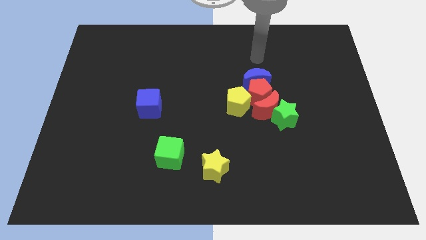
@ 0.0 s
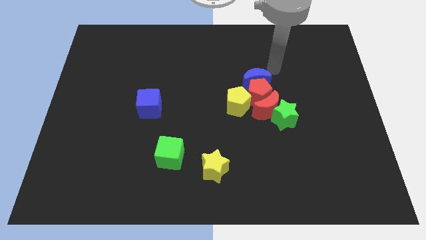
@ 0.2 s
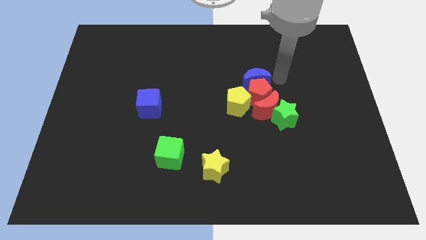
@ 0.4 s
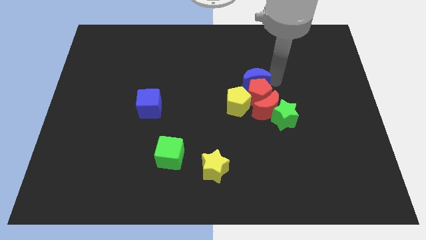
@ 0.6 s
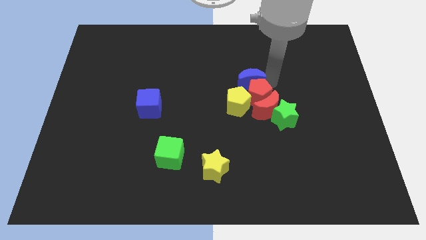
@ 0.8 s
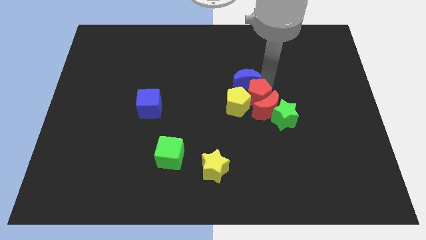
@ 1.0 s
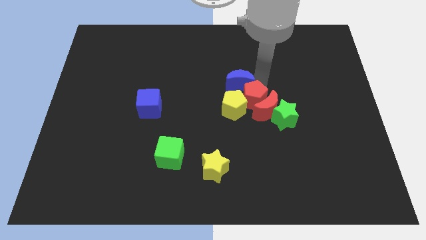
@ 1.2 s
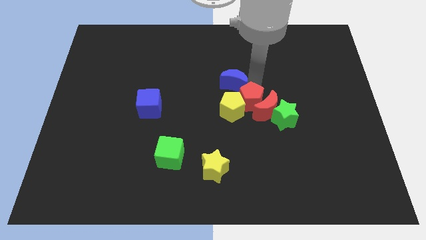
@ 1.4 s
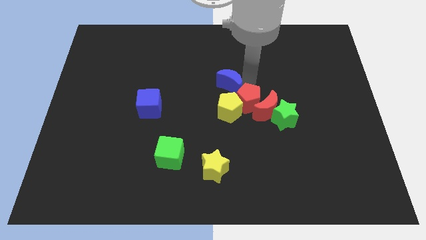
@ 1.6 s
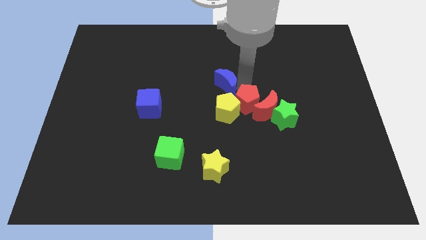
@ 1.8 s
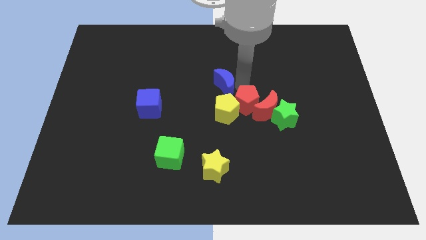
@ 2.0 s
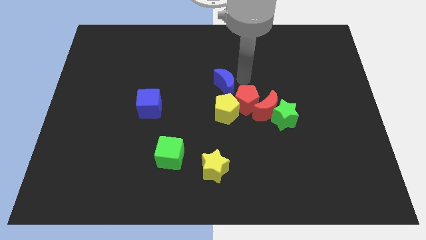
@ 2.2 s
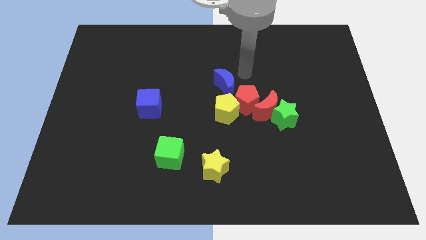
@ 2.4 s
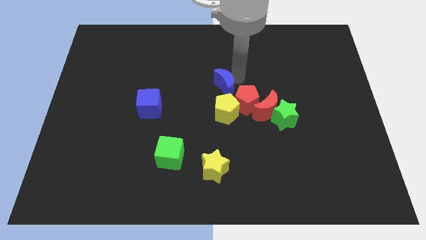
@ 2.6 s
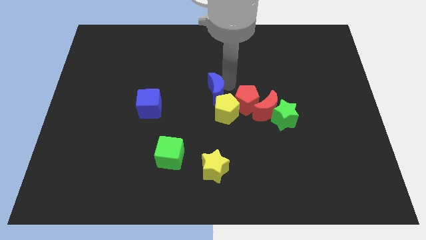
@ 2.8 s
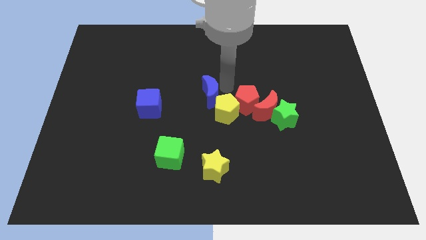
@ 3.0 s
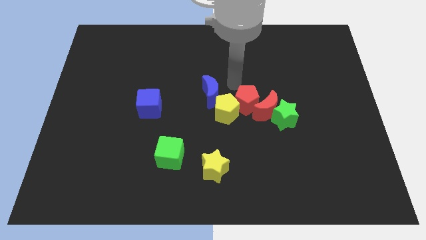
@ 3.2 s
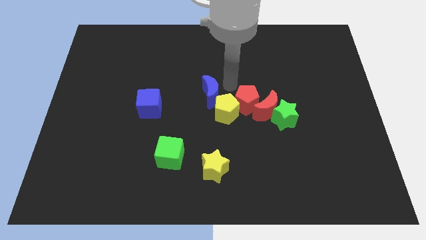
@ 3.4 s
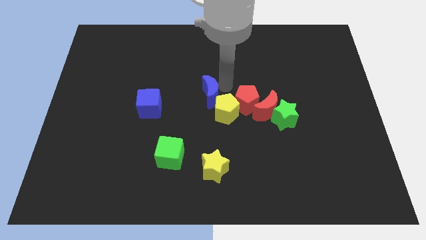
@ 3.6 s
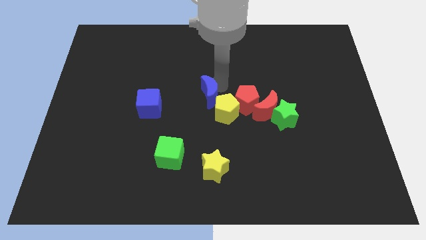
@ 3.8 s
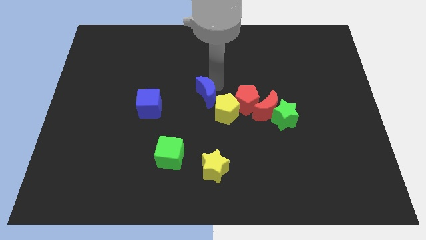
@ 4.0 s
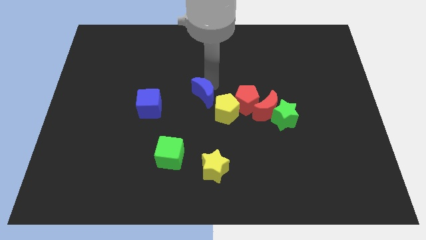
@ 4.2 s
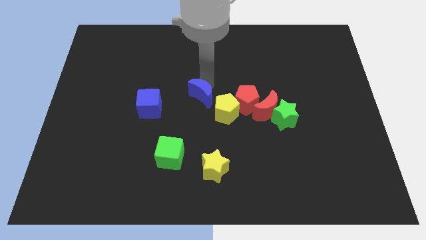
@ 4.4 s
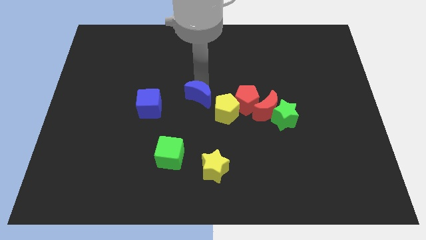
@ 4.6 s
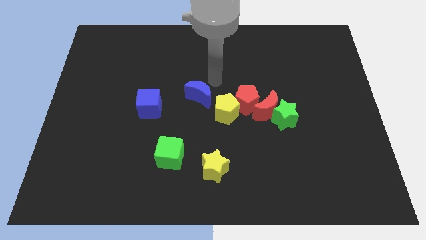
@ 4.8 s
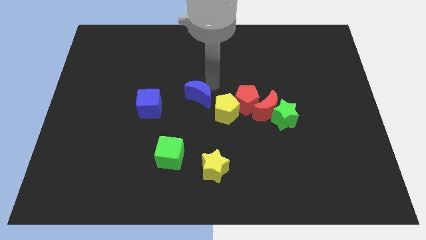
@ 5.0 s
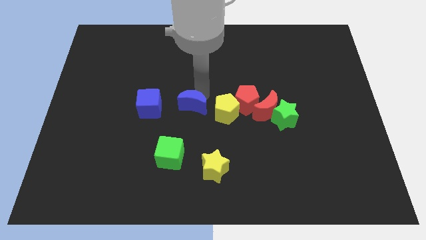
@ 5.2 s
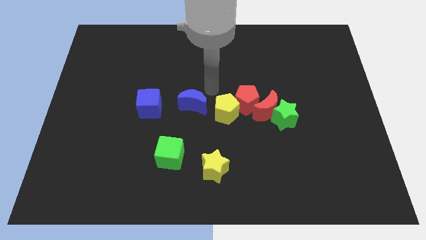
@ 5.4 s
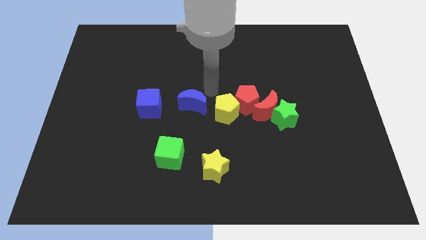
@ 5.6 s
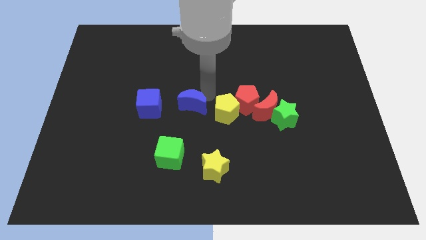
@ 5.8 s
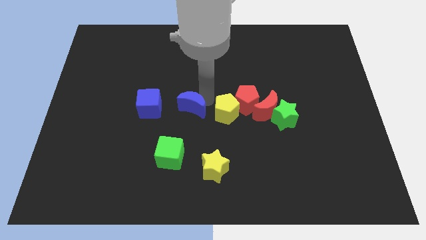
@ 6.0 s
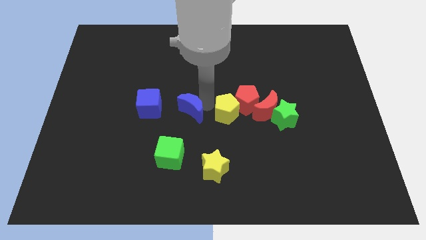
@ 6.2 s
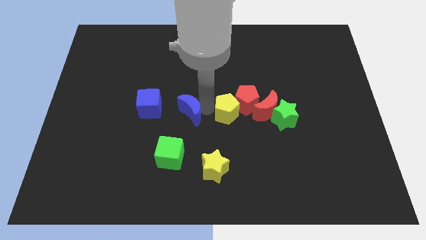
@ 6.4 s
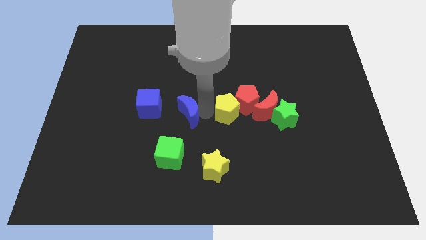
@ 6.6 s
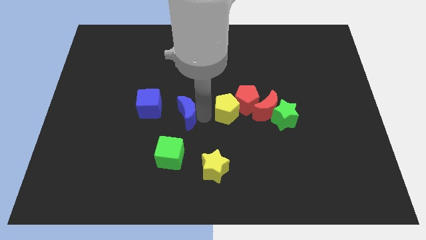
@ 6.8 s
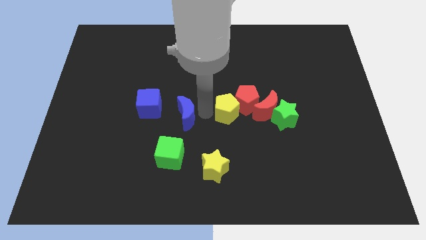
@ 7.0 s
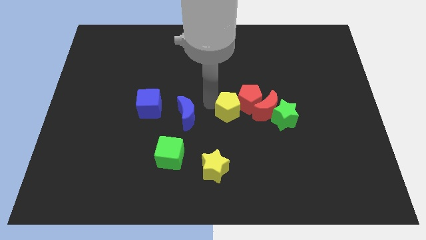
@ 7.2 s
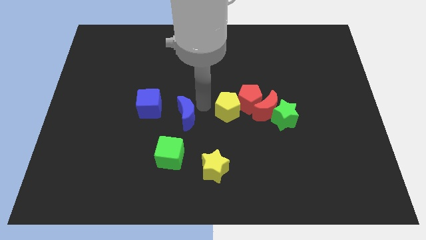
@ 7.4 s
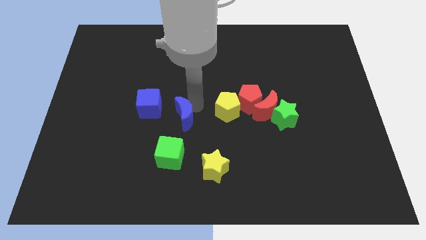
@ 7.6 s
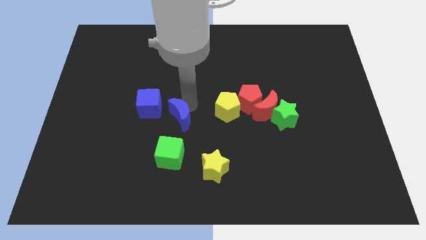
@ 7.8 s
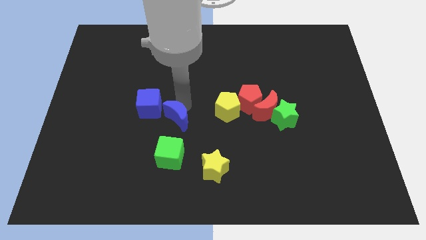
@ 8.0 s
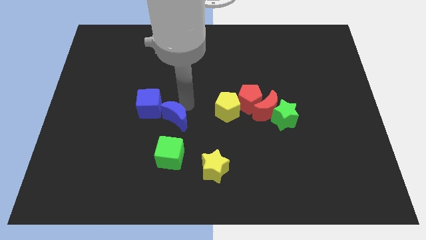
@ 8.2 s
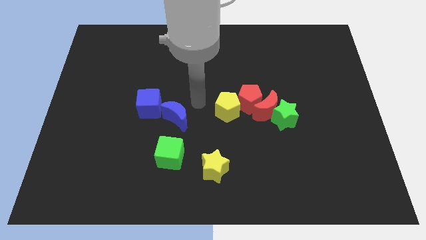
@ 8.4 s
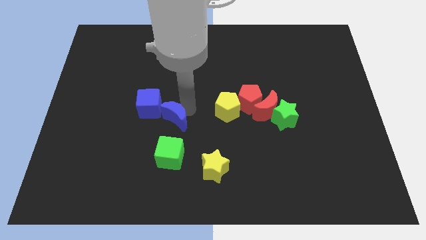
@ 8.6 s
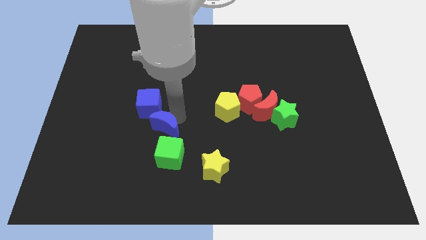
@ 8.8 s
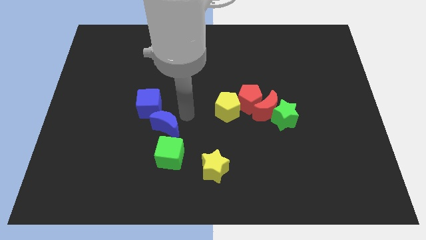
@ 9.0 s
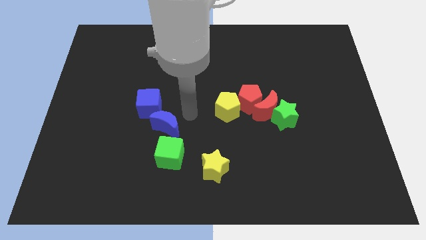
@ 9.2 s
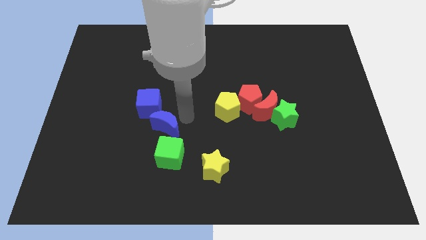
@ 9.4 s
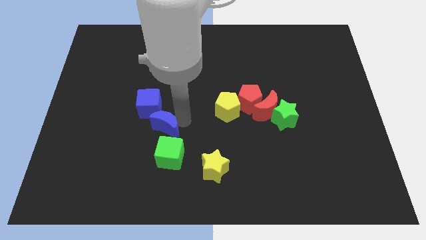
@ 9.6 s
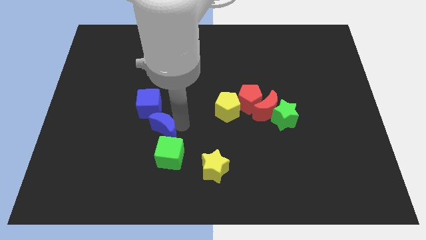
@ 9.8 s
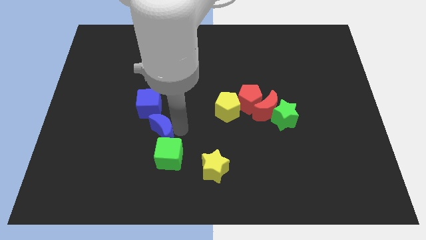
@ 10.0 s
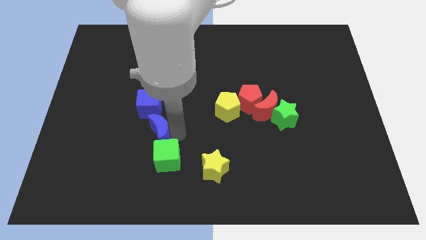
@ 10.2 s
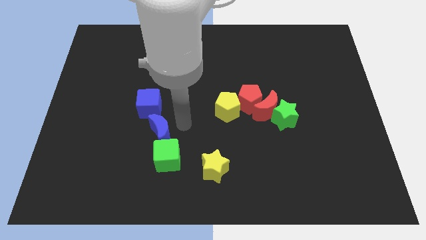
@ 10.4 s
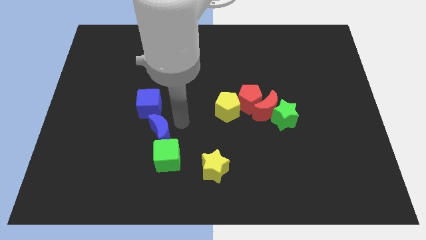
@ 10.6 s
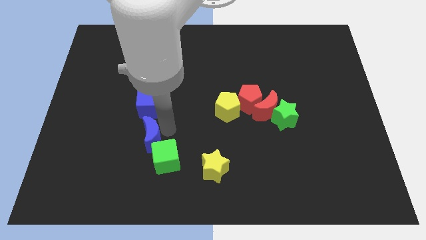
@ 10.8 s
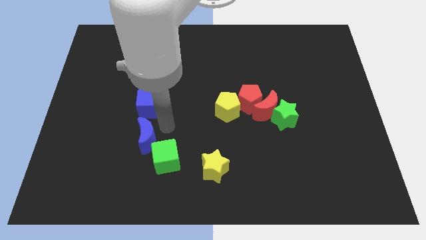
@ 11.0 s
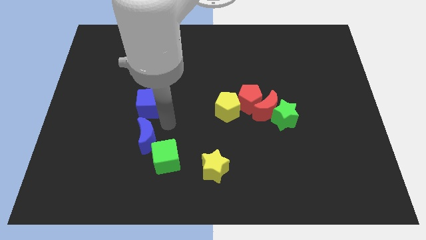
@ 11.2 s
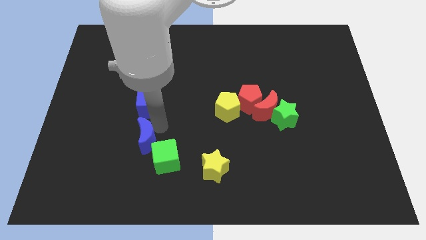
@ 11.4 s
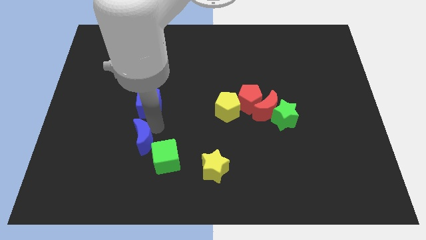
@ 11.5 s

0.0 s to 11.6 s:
put the blue moon to the left of the green cube

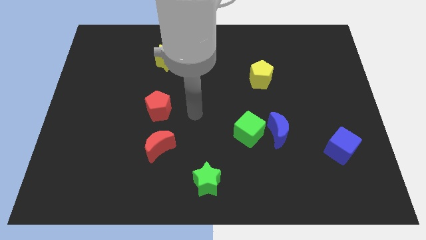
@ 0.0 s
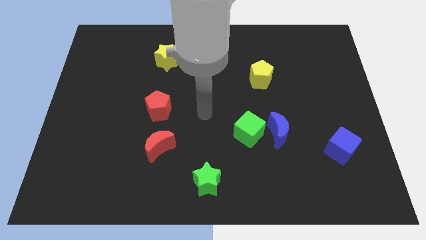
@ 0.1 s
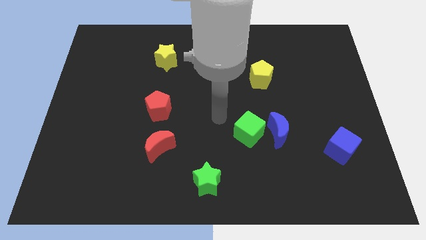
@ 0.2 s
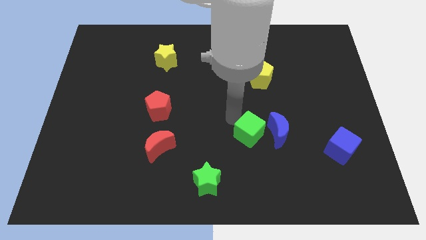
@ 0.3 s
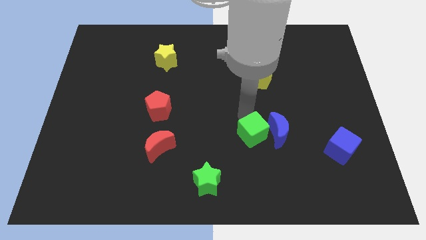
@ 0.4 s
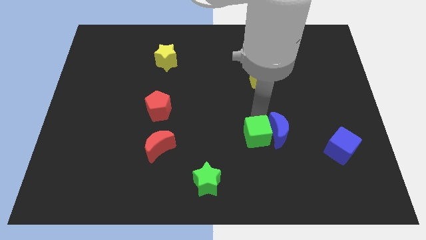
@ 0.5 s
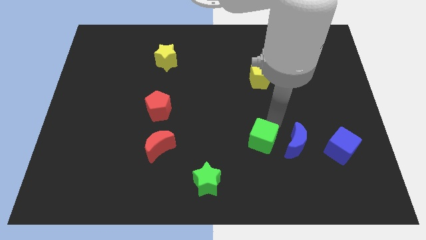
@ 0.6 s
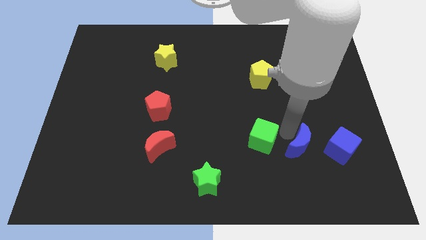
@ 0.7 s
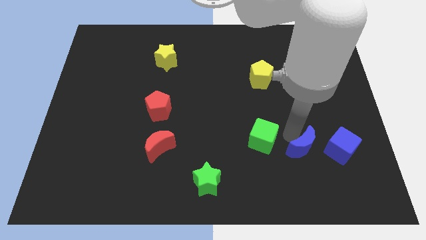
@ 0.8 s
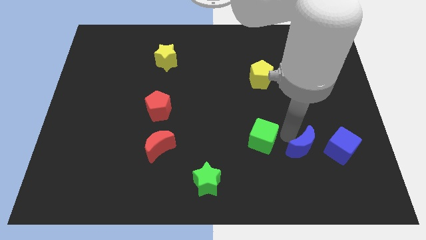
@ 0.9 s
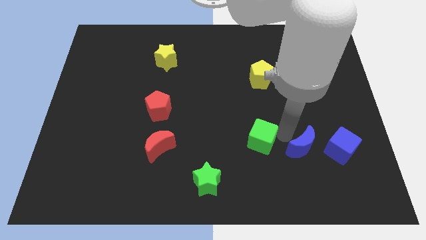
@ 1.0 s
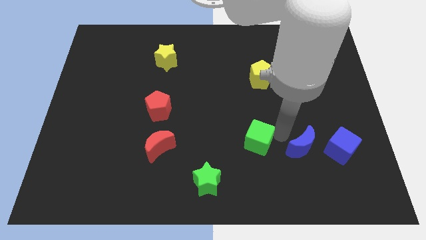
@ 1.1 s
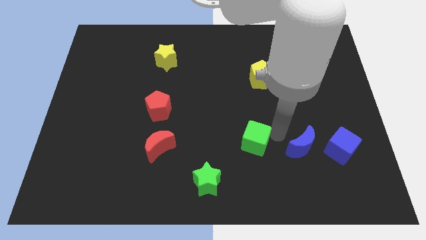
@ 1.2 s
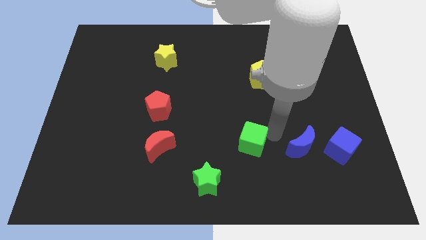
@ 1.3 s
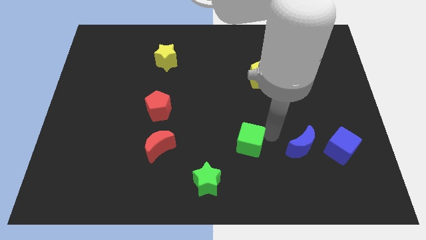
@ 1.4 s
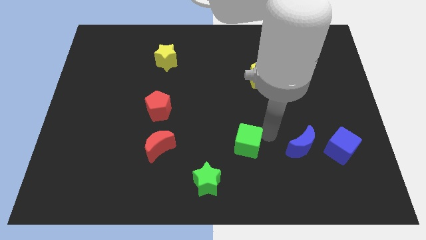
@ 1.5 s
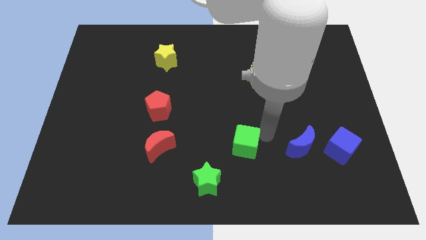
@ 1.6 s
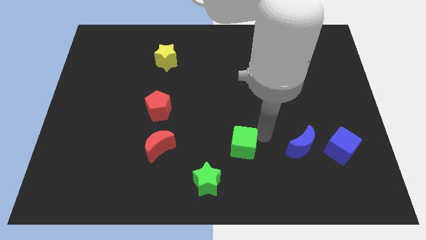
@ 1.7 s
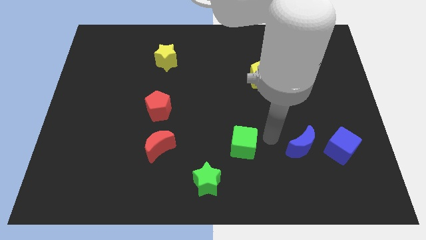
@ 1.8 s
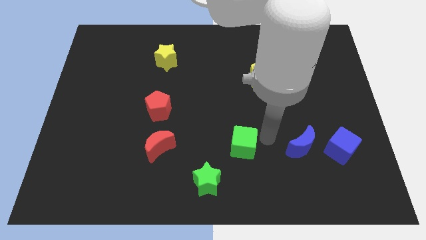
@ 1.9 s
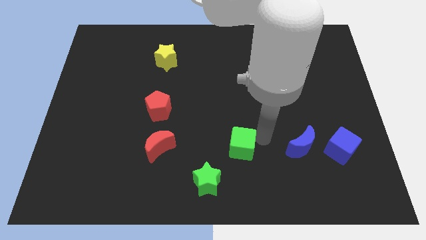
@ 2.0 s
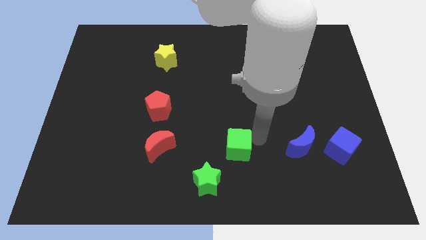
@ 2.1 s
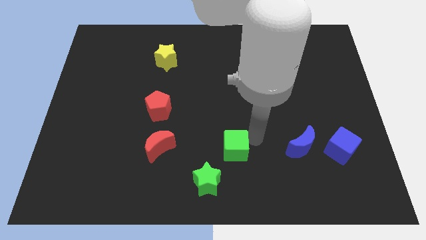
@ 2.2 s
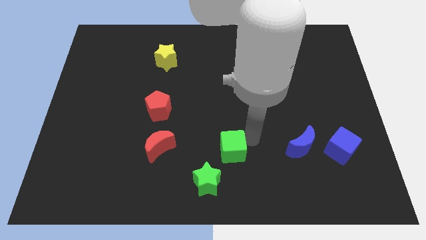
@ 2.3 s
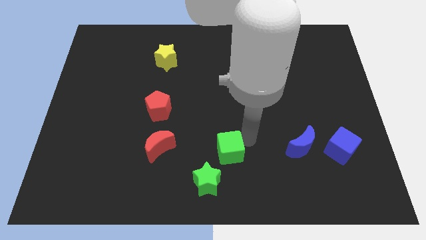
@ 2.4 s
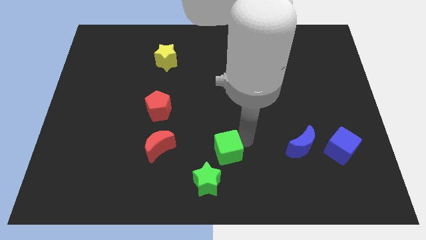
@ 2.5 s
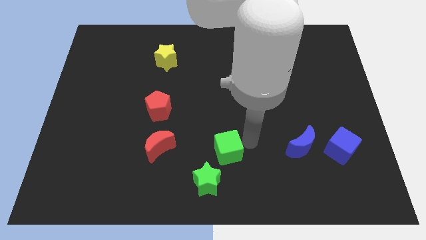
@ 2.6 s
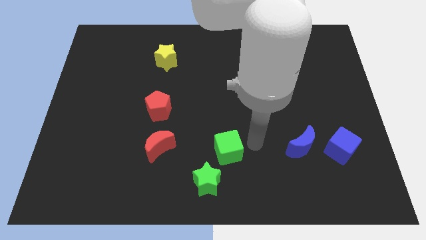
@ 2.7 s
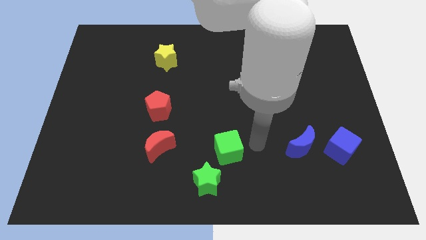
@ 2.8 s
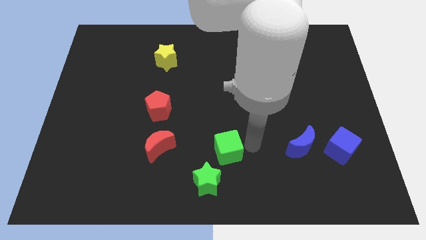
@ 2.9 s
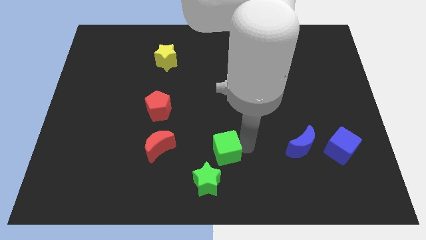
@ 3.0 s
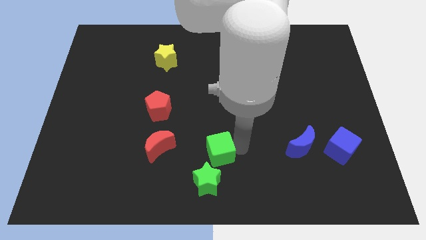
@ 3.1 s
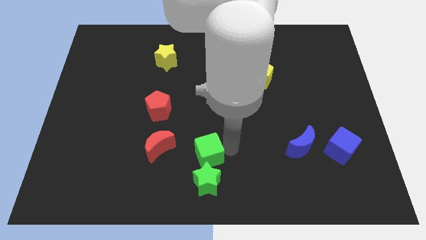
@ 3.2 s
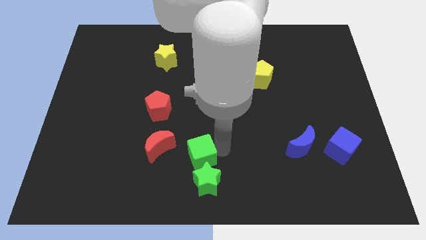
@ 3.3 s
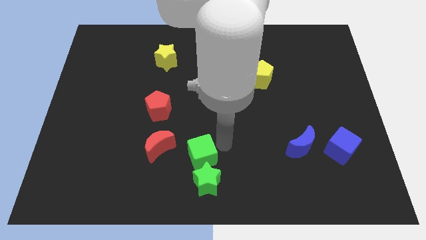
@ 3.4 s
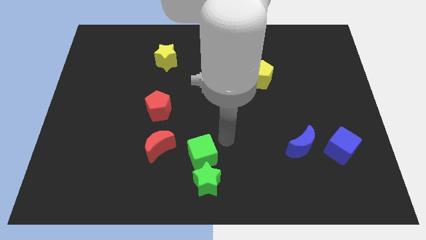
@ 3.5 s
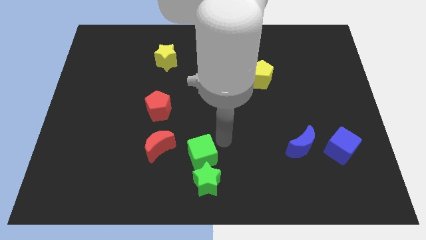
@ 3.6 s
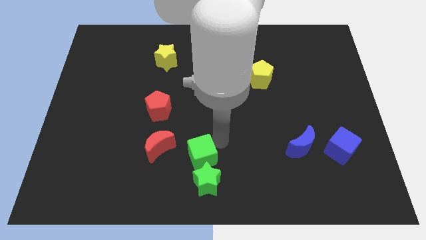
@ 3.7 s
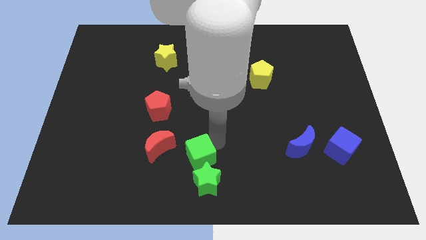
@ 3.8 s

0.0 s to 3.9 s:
move the green cube to the bottom right of the red moon
